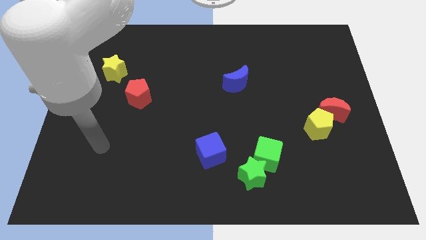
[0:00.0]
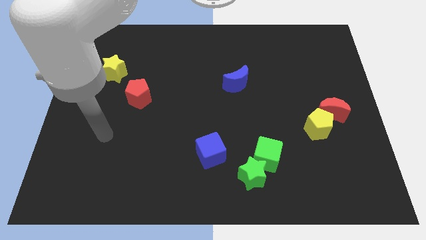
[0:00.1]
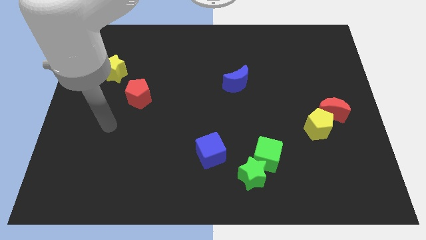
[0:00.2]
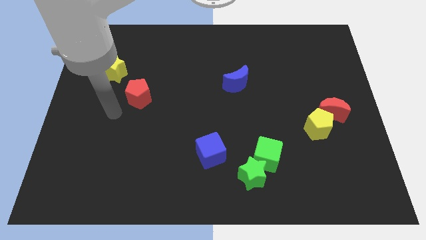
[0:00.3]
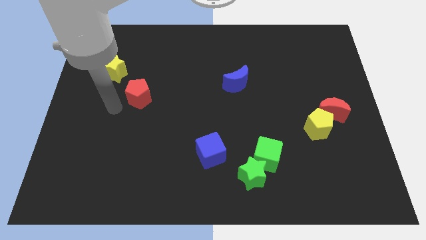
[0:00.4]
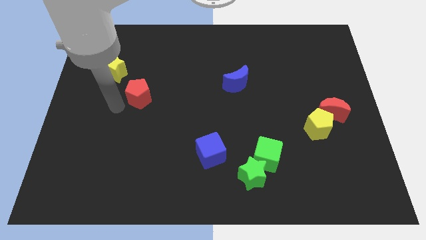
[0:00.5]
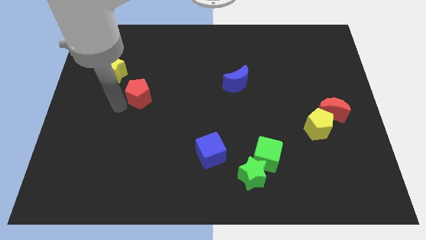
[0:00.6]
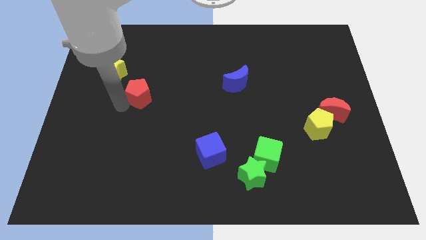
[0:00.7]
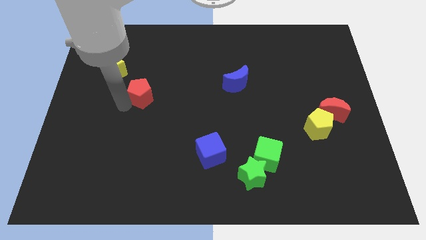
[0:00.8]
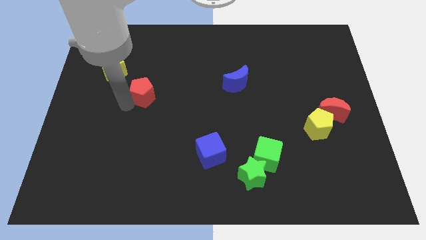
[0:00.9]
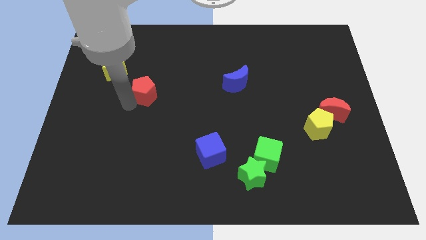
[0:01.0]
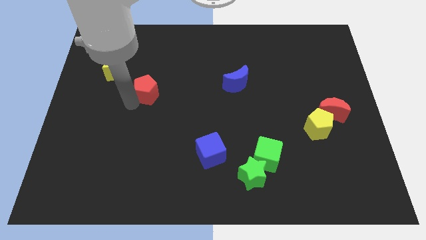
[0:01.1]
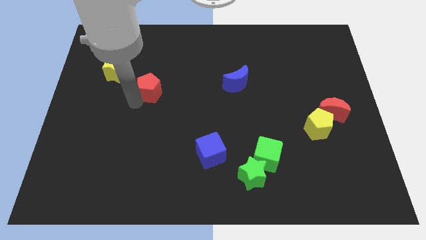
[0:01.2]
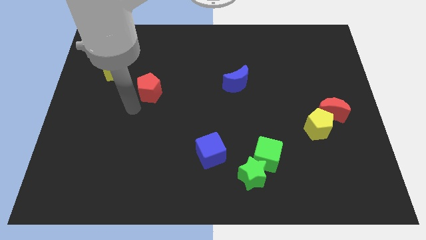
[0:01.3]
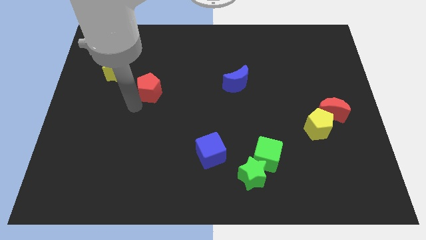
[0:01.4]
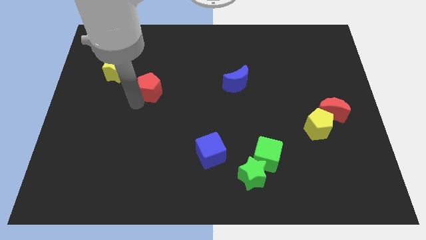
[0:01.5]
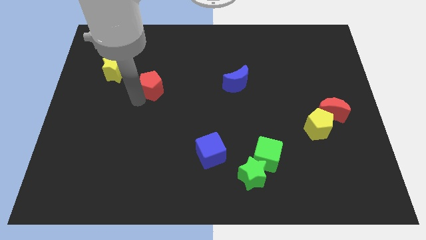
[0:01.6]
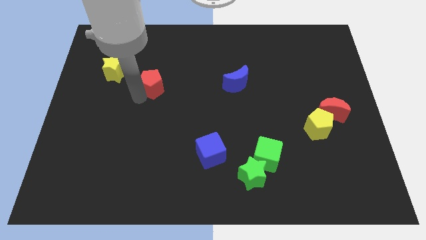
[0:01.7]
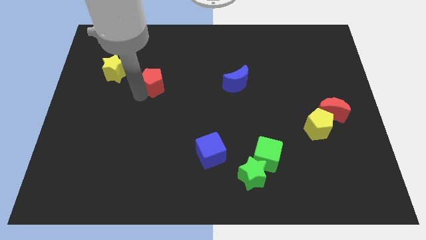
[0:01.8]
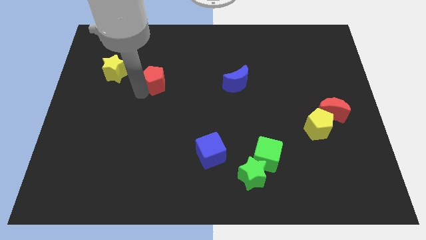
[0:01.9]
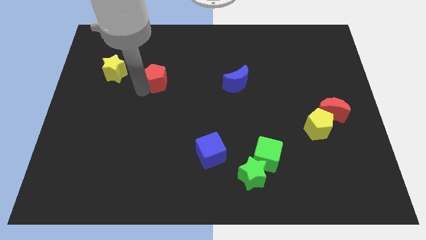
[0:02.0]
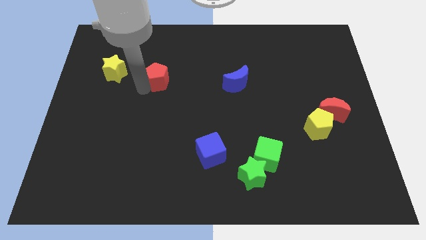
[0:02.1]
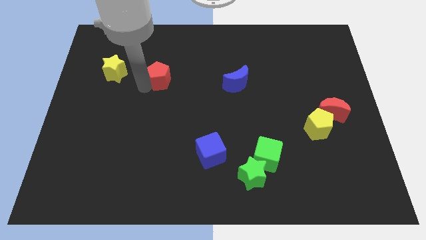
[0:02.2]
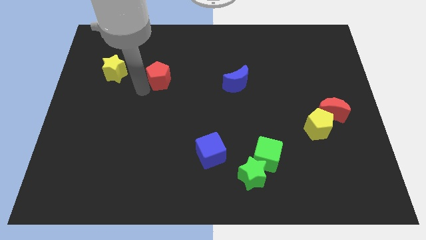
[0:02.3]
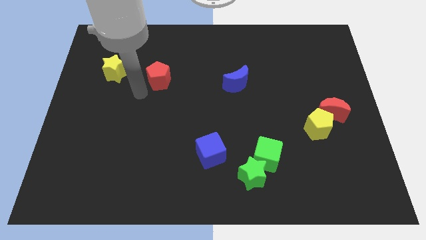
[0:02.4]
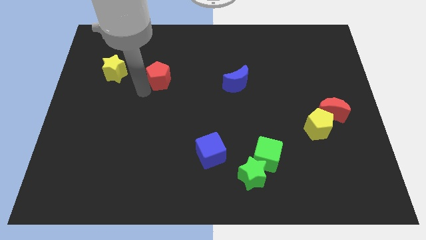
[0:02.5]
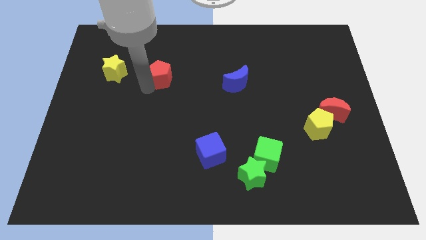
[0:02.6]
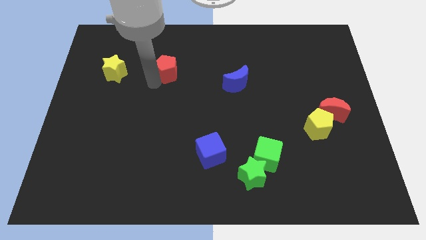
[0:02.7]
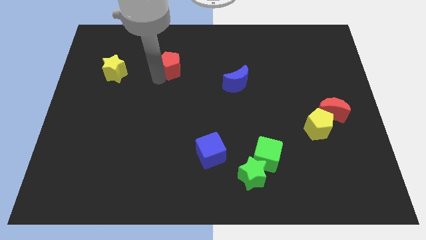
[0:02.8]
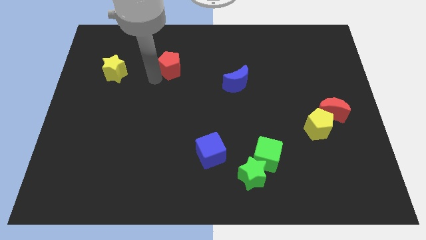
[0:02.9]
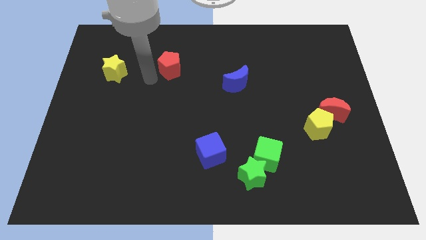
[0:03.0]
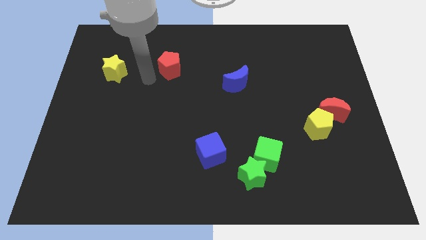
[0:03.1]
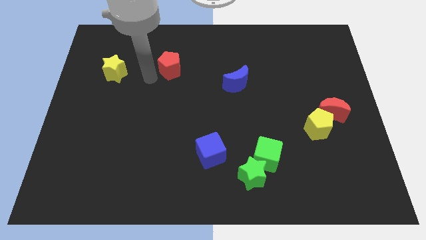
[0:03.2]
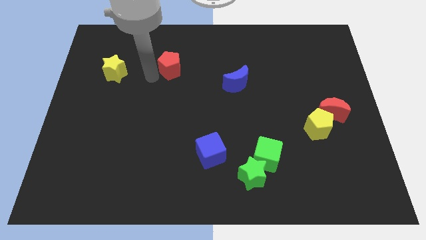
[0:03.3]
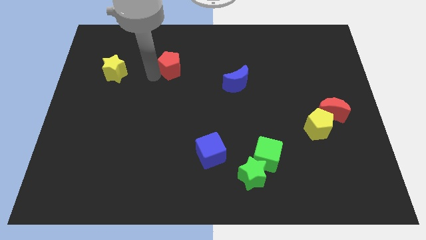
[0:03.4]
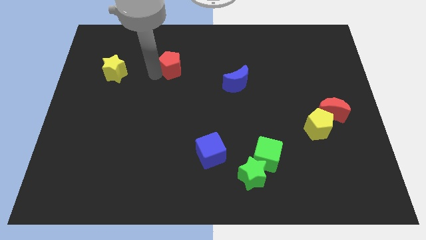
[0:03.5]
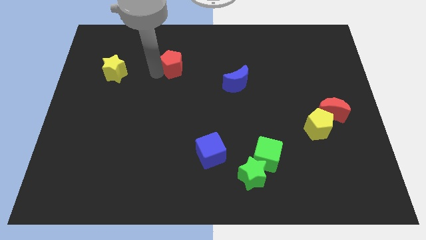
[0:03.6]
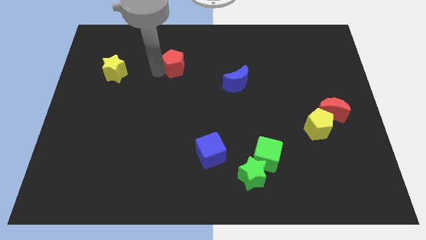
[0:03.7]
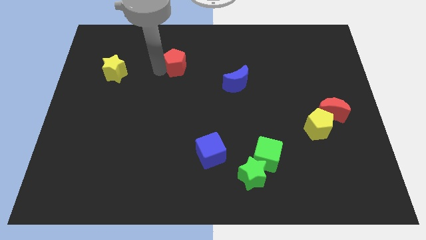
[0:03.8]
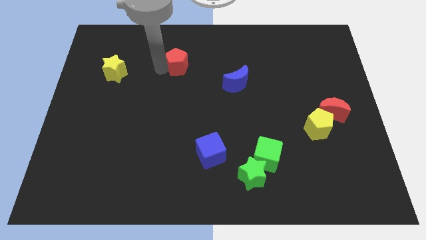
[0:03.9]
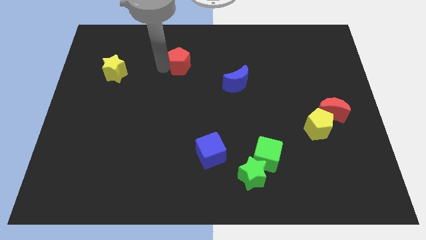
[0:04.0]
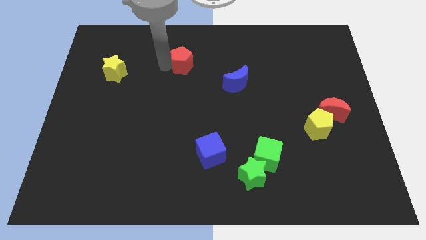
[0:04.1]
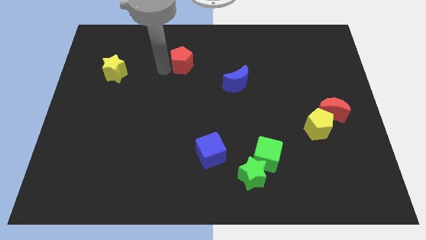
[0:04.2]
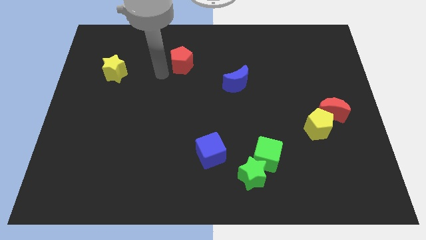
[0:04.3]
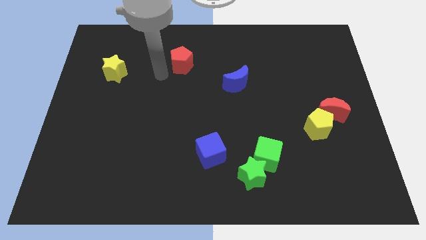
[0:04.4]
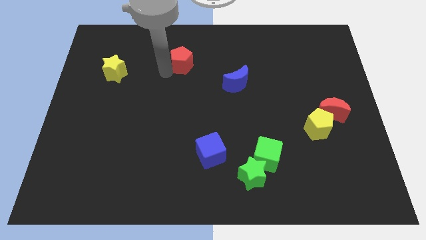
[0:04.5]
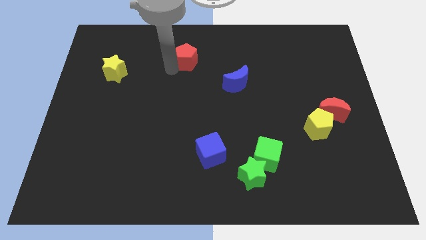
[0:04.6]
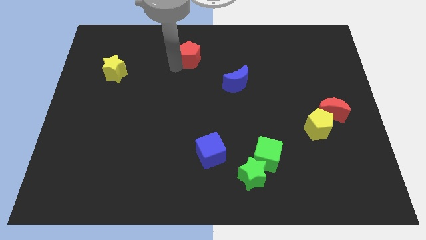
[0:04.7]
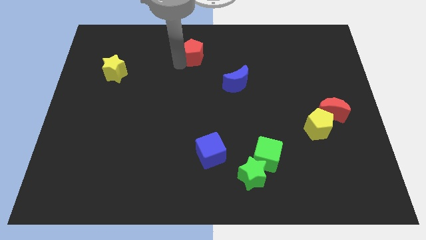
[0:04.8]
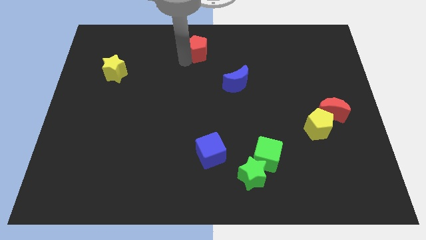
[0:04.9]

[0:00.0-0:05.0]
slide the red pentagon to the top side

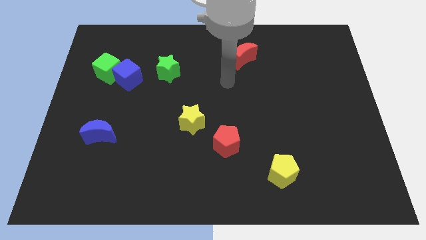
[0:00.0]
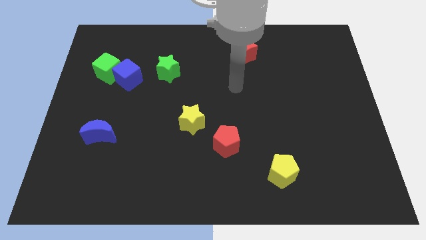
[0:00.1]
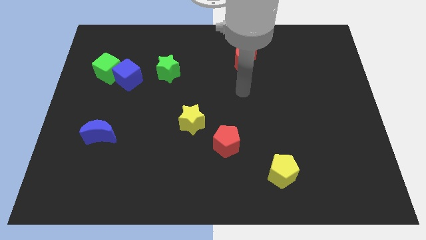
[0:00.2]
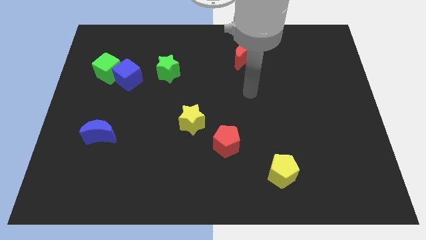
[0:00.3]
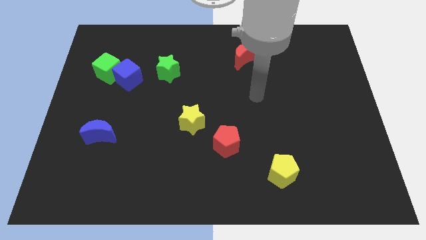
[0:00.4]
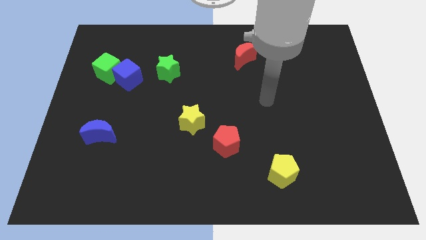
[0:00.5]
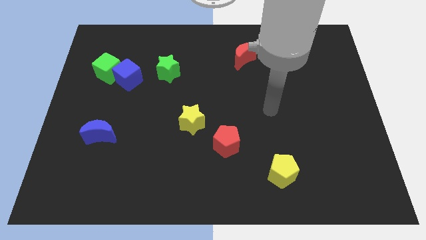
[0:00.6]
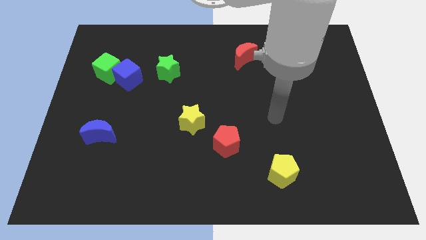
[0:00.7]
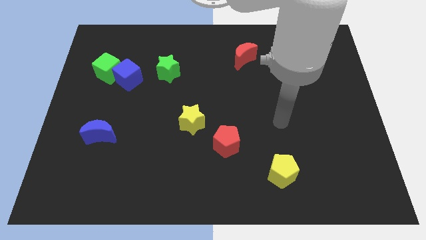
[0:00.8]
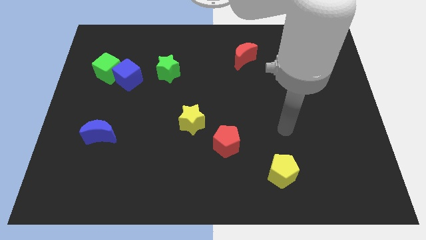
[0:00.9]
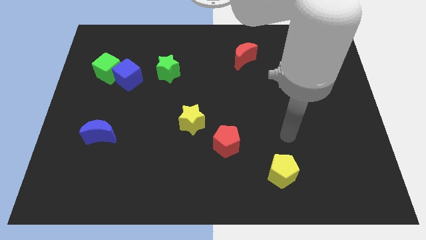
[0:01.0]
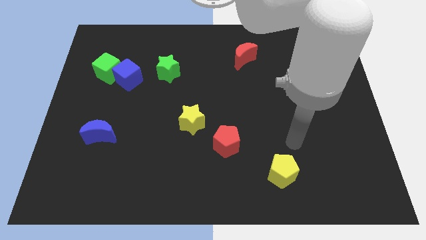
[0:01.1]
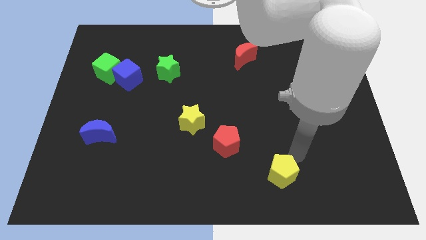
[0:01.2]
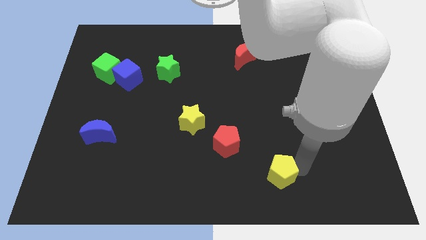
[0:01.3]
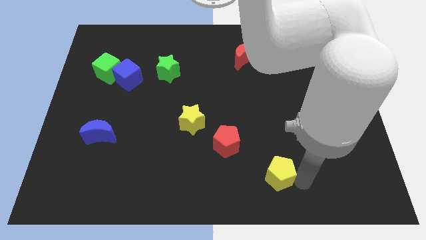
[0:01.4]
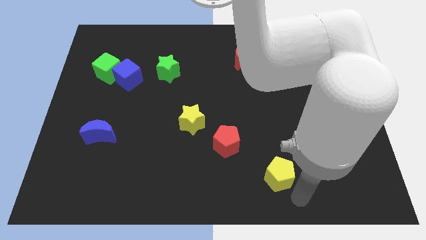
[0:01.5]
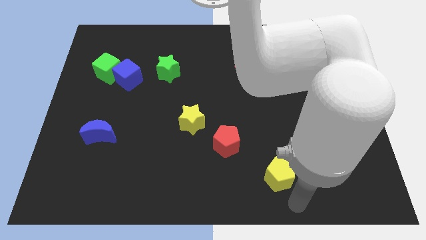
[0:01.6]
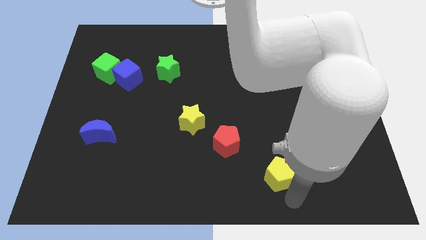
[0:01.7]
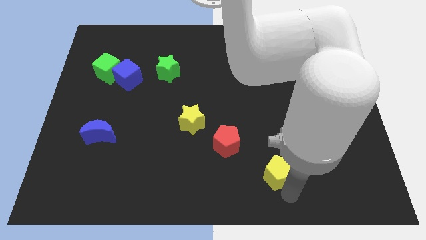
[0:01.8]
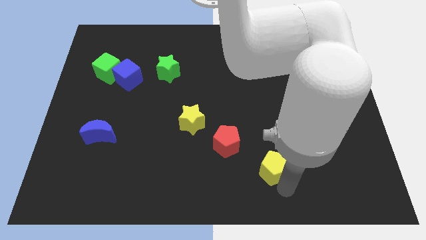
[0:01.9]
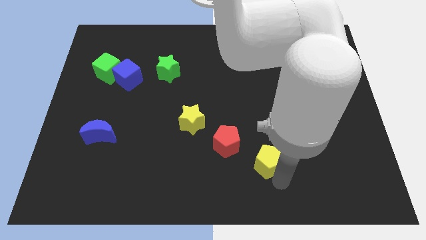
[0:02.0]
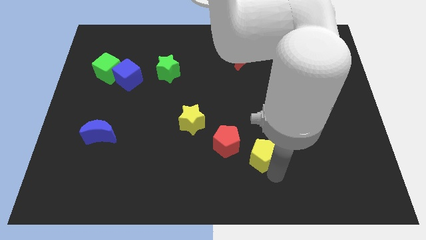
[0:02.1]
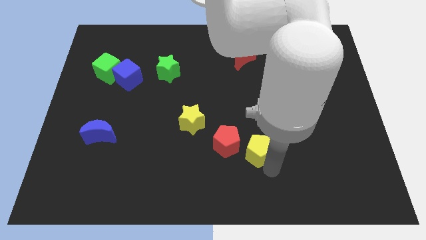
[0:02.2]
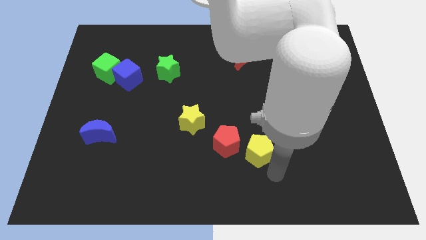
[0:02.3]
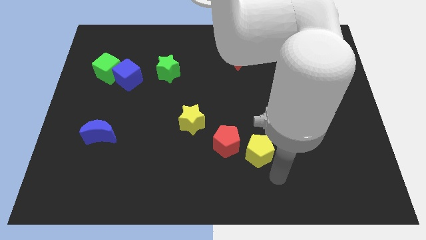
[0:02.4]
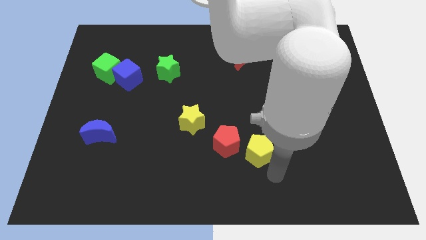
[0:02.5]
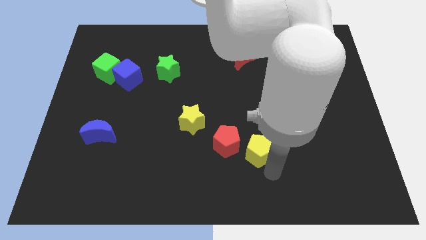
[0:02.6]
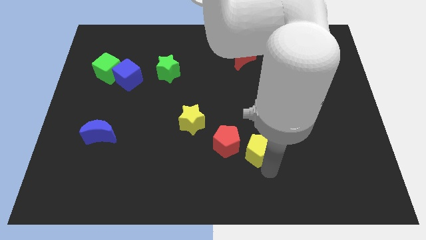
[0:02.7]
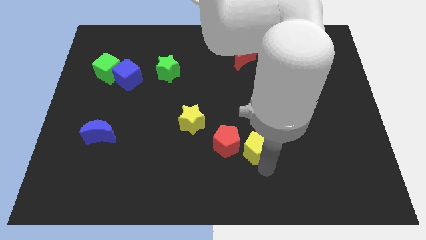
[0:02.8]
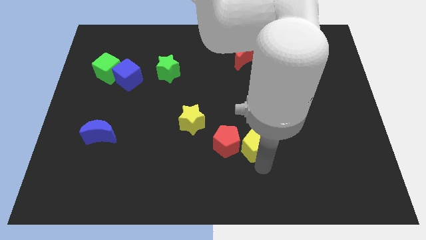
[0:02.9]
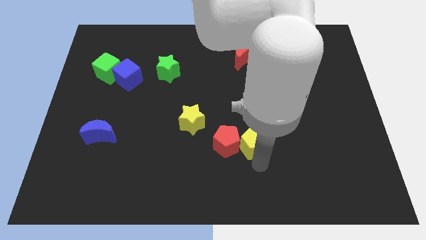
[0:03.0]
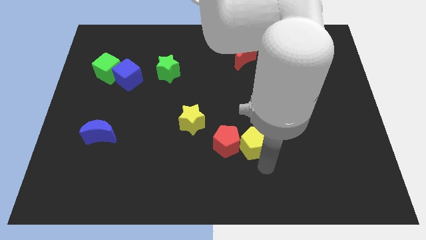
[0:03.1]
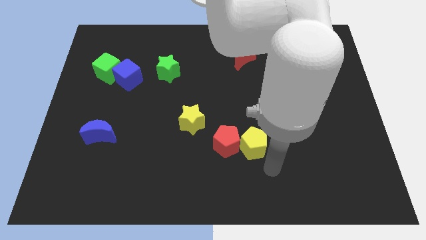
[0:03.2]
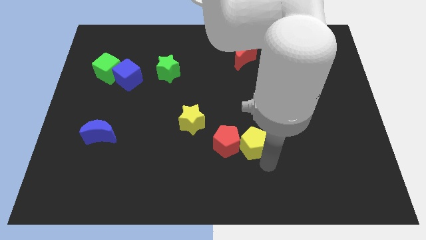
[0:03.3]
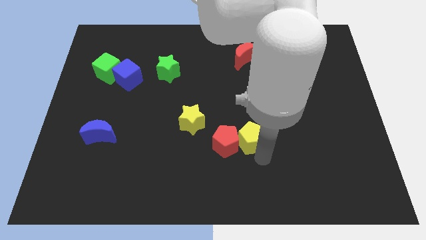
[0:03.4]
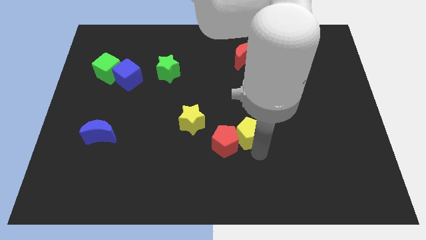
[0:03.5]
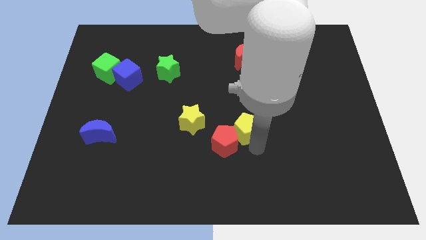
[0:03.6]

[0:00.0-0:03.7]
move the yellow pentagon to the middle
